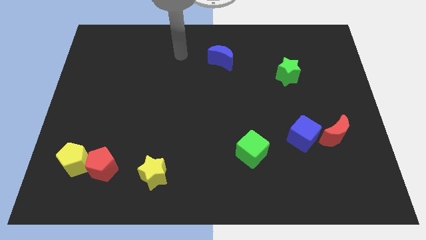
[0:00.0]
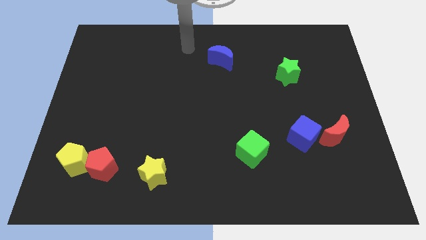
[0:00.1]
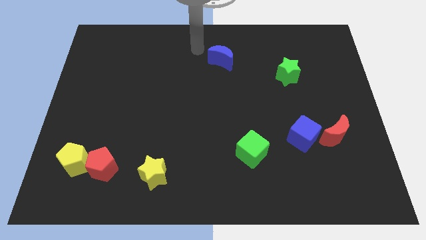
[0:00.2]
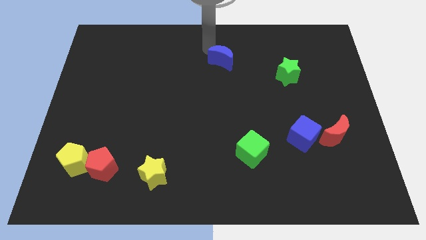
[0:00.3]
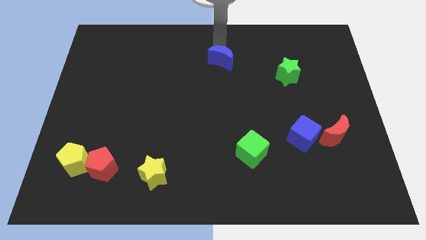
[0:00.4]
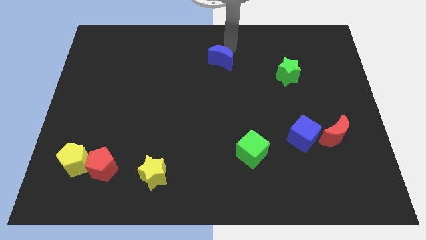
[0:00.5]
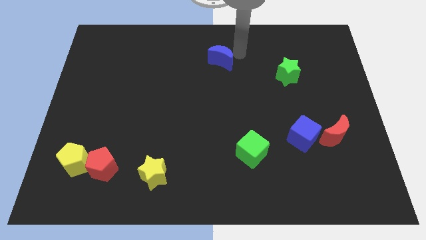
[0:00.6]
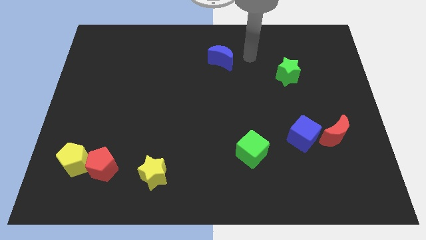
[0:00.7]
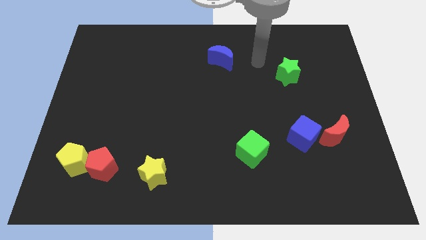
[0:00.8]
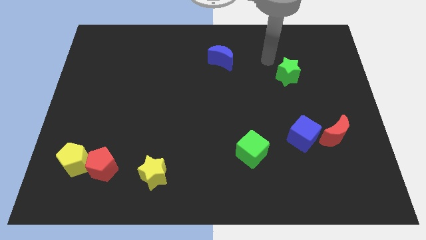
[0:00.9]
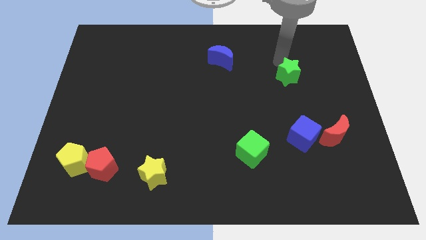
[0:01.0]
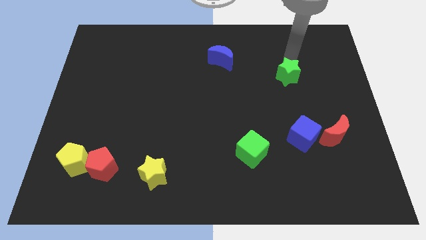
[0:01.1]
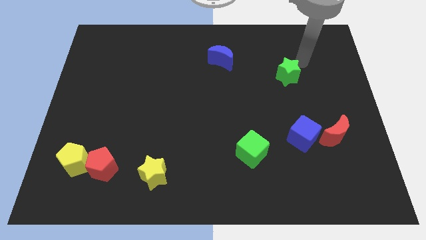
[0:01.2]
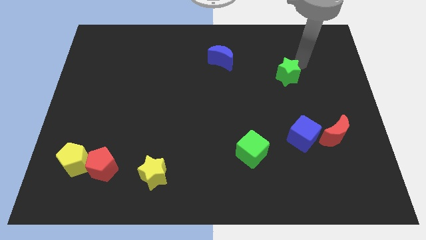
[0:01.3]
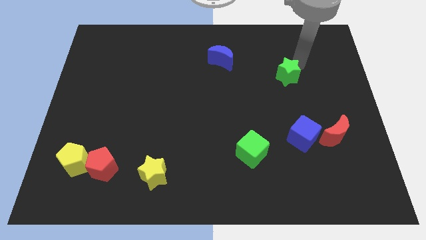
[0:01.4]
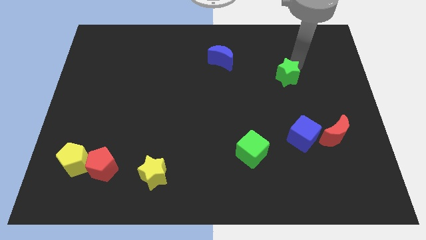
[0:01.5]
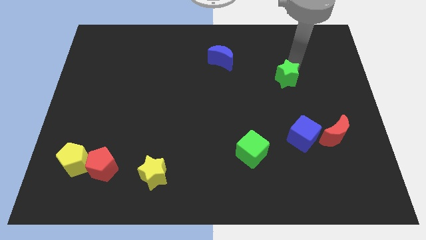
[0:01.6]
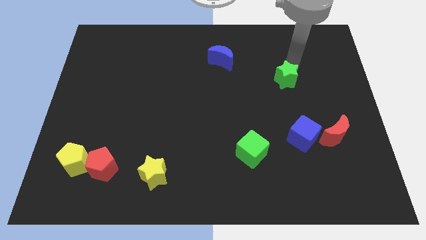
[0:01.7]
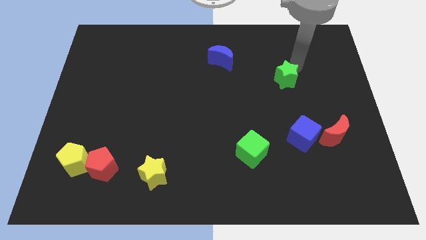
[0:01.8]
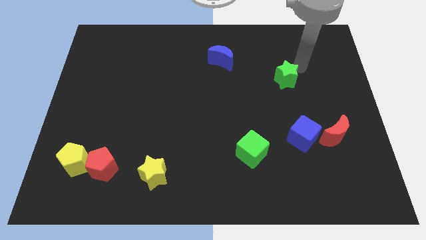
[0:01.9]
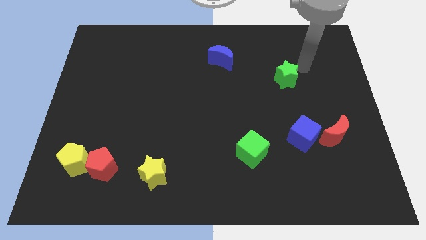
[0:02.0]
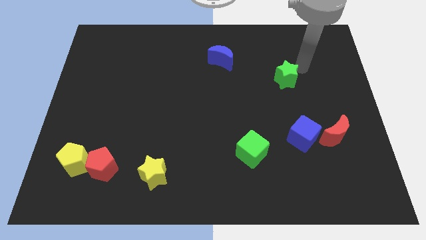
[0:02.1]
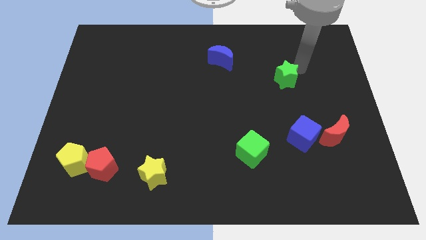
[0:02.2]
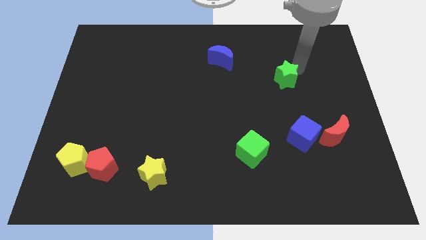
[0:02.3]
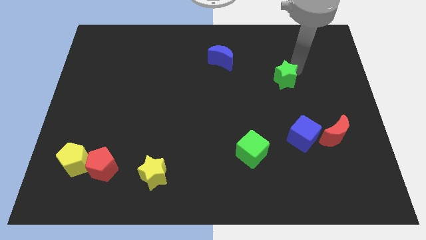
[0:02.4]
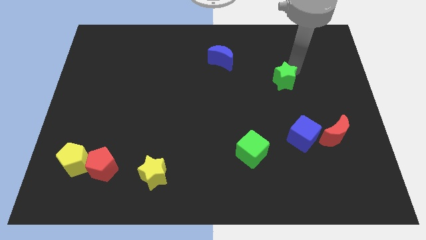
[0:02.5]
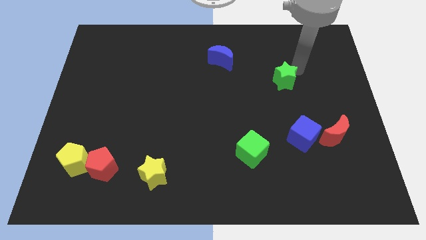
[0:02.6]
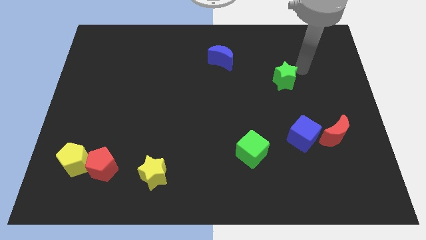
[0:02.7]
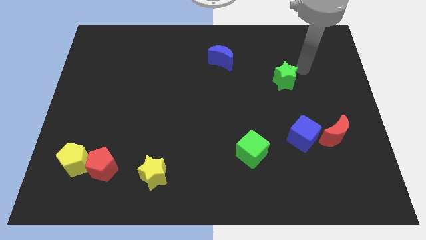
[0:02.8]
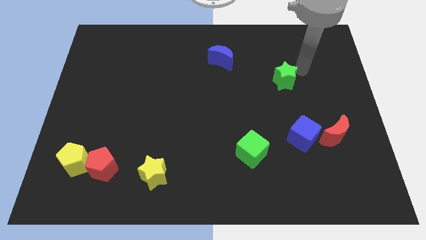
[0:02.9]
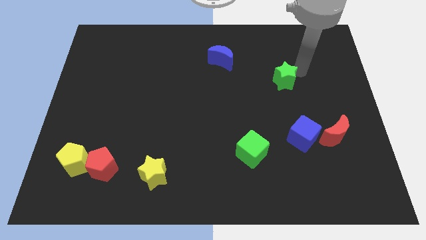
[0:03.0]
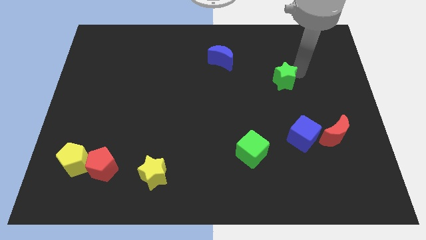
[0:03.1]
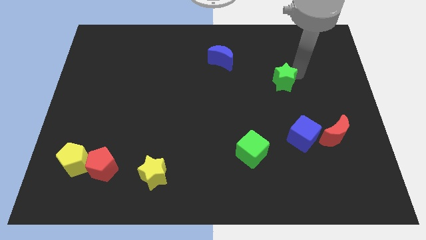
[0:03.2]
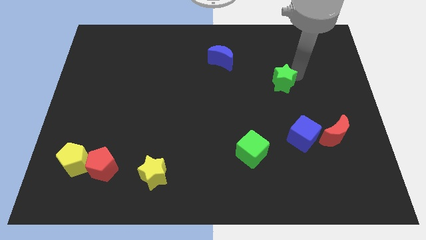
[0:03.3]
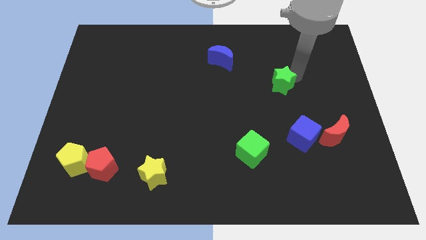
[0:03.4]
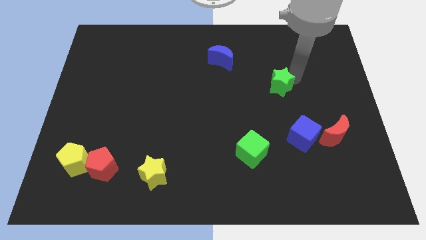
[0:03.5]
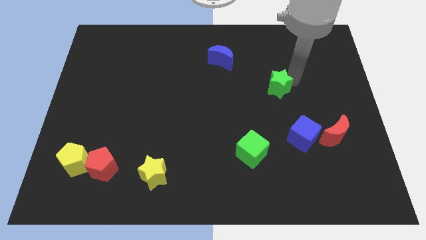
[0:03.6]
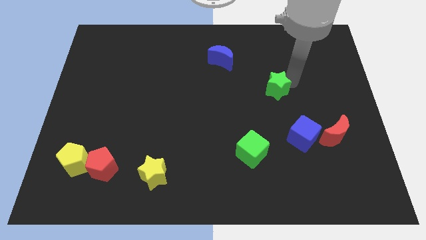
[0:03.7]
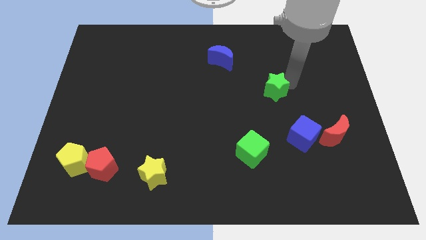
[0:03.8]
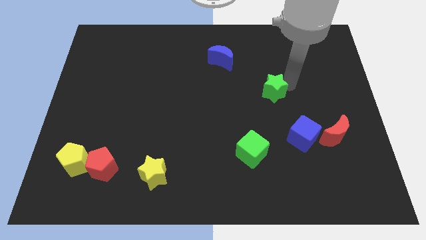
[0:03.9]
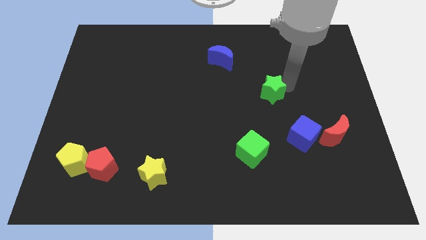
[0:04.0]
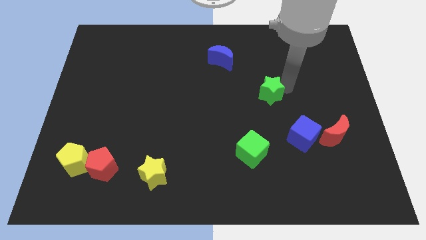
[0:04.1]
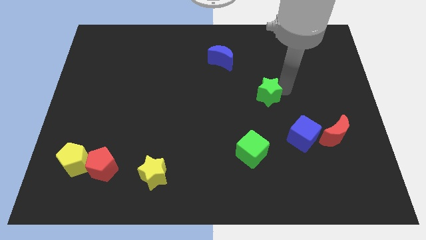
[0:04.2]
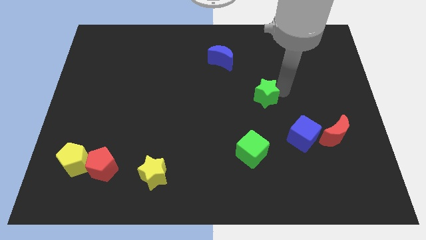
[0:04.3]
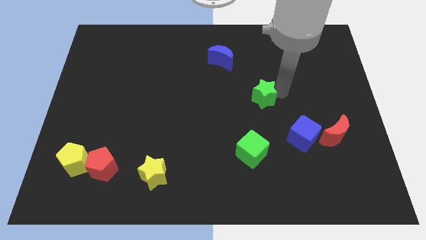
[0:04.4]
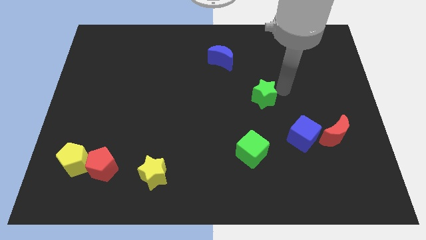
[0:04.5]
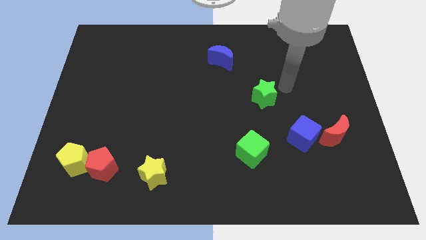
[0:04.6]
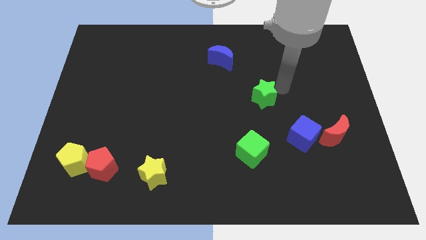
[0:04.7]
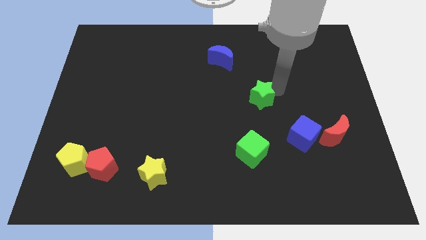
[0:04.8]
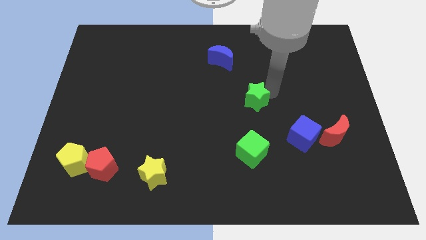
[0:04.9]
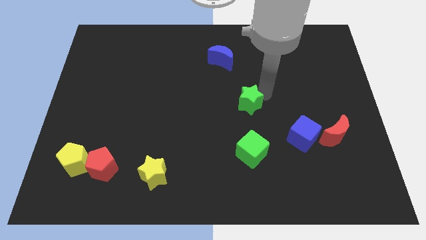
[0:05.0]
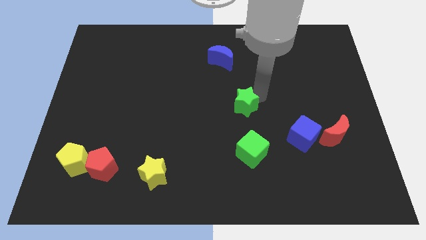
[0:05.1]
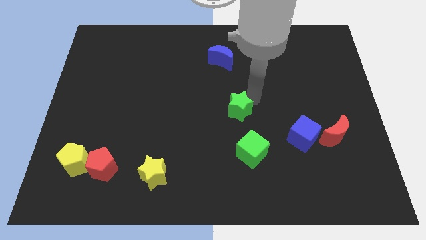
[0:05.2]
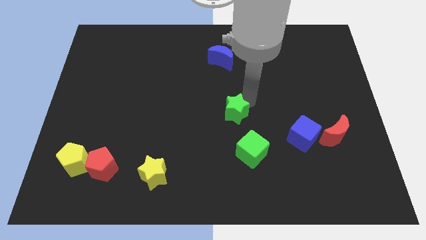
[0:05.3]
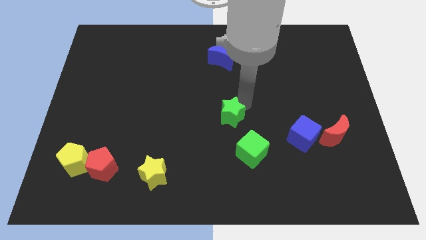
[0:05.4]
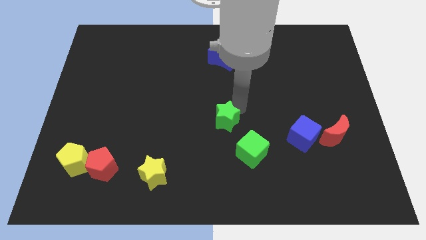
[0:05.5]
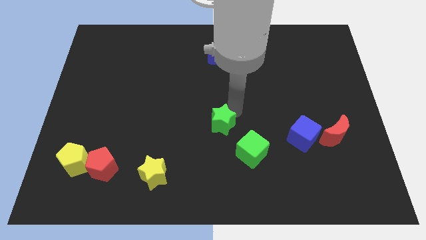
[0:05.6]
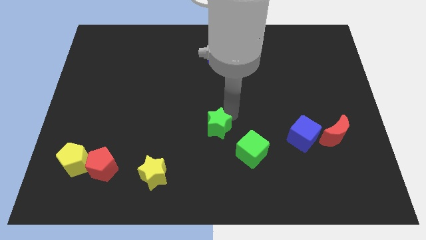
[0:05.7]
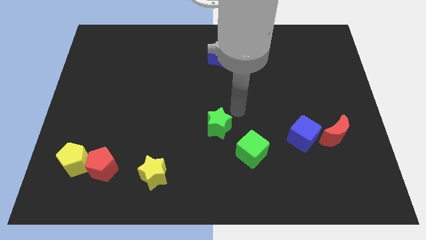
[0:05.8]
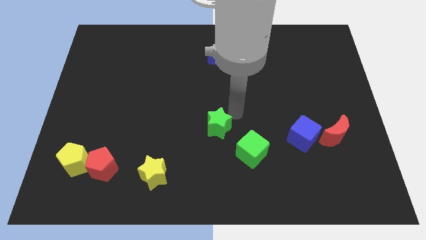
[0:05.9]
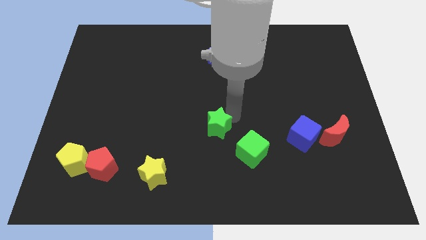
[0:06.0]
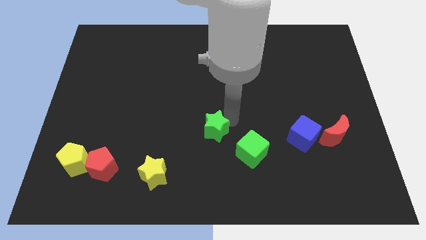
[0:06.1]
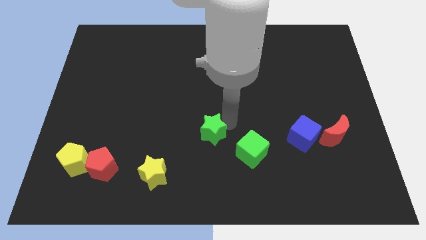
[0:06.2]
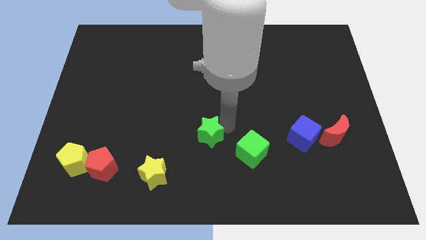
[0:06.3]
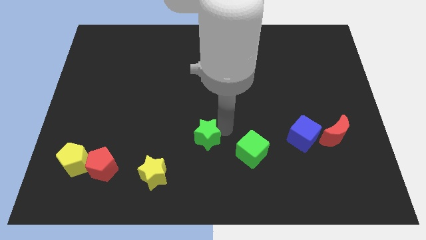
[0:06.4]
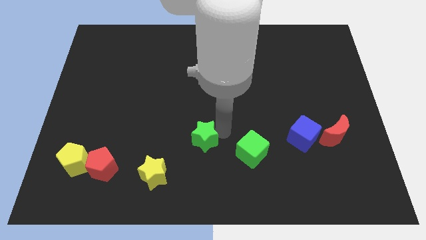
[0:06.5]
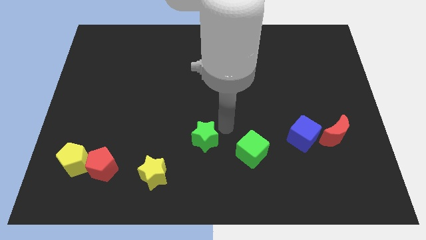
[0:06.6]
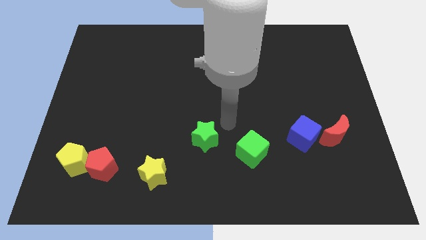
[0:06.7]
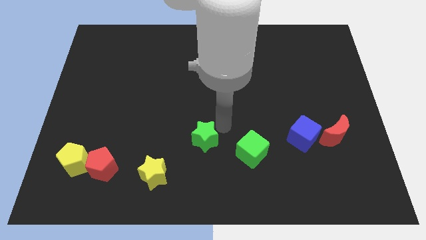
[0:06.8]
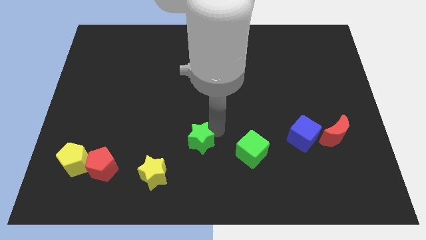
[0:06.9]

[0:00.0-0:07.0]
push the green star to the top right side of the yellow star
